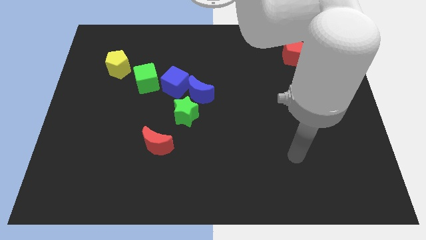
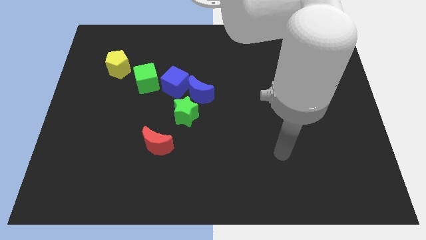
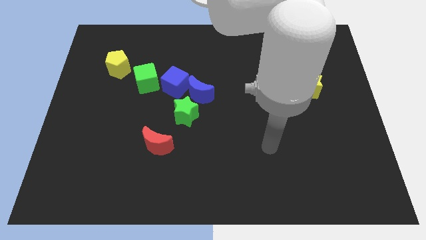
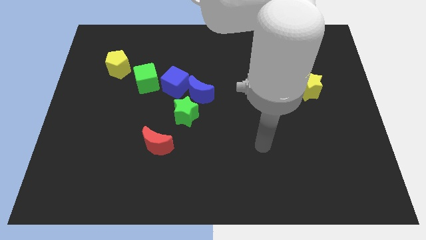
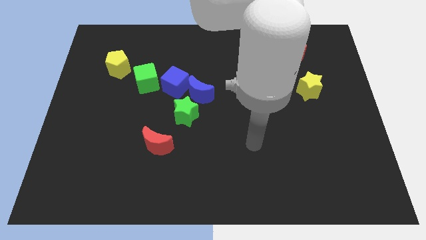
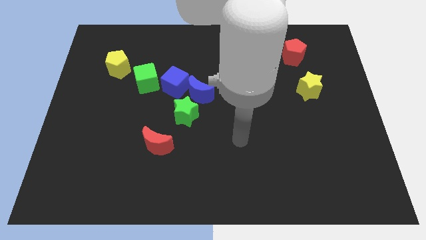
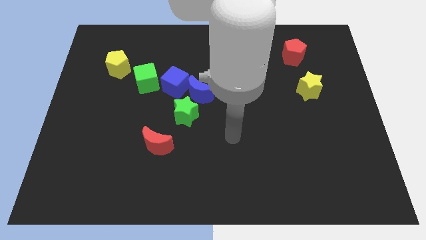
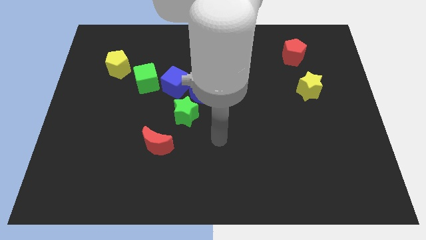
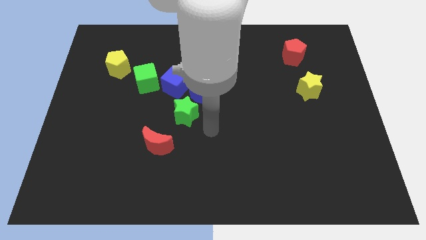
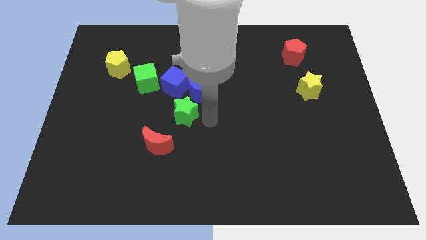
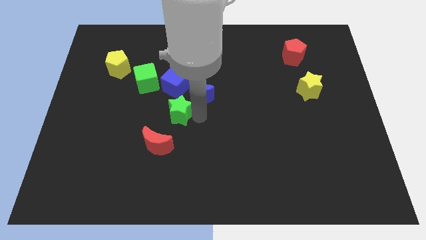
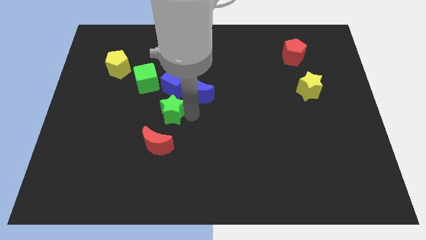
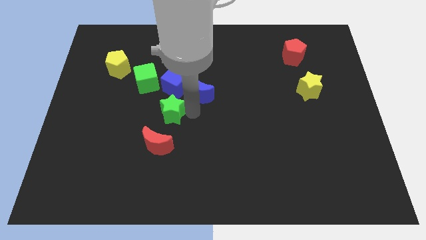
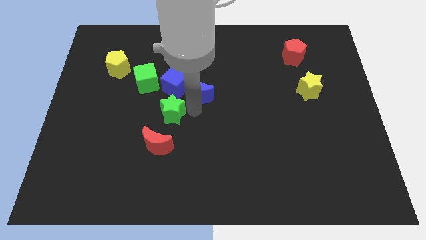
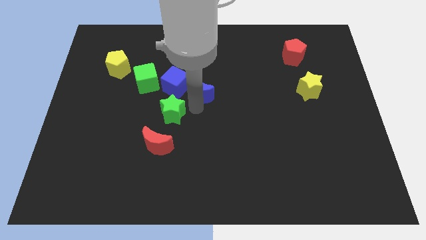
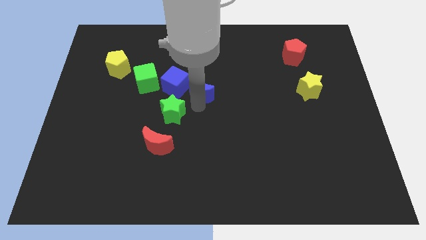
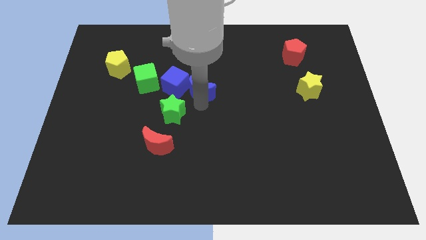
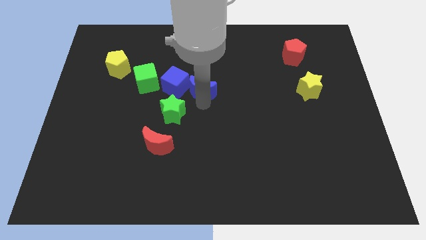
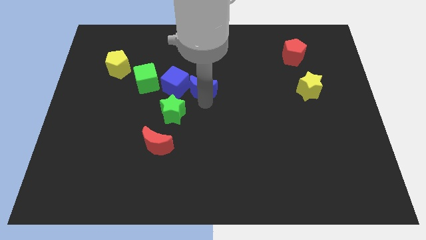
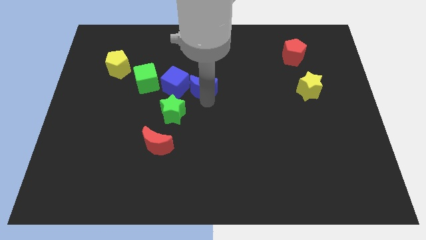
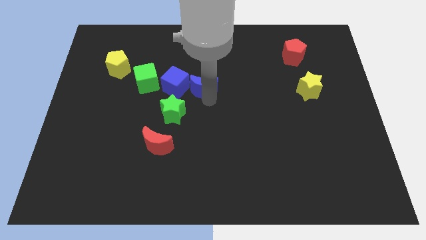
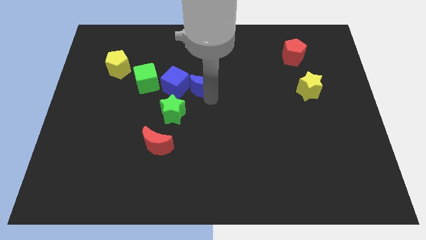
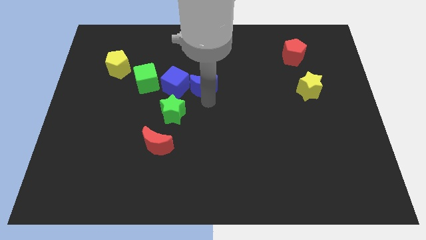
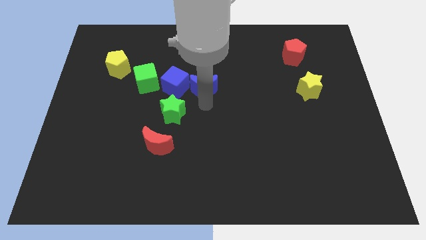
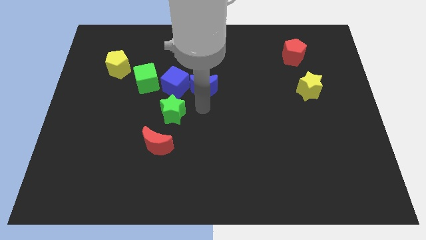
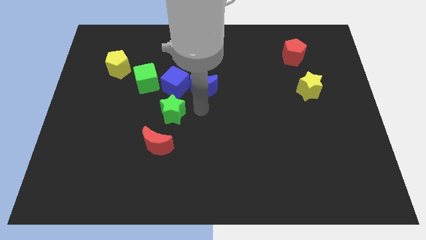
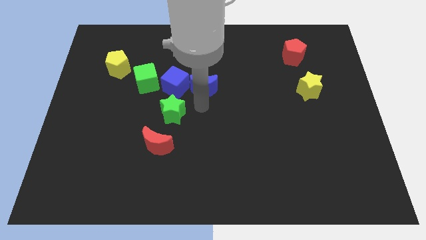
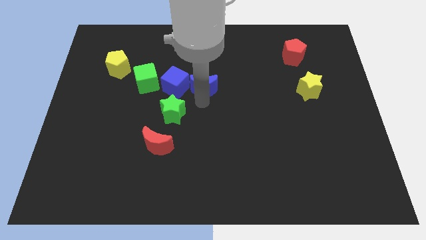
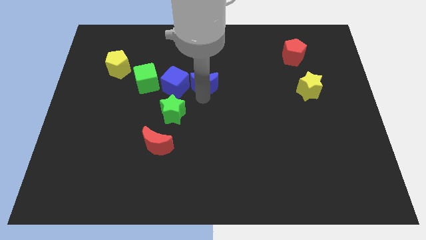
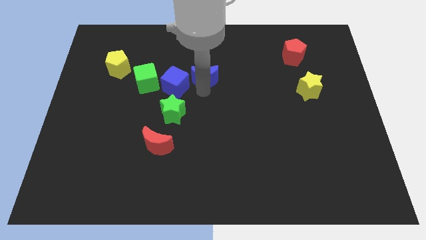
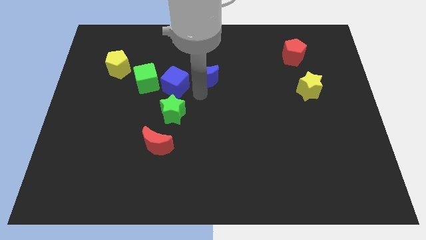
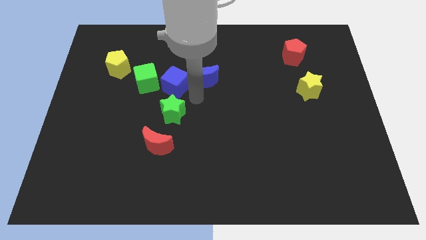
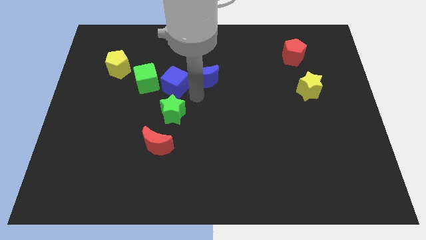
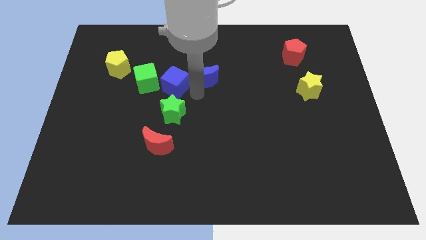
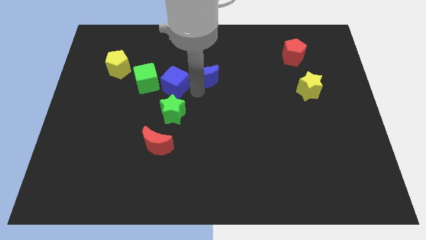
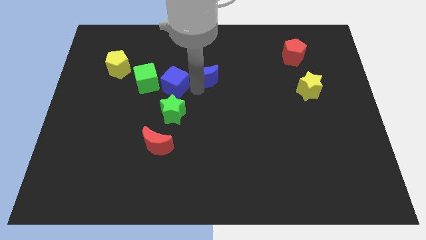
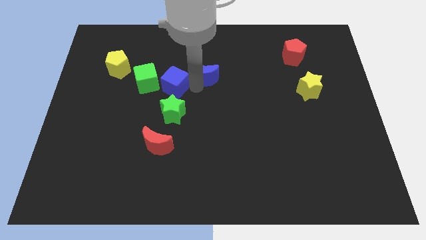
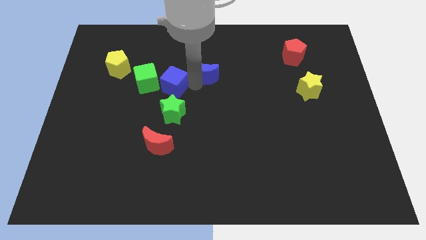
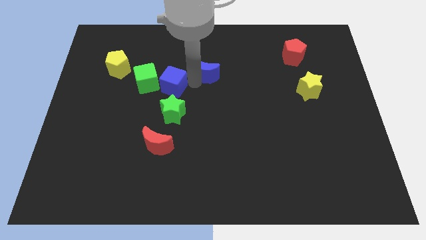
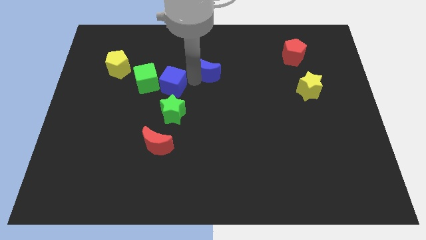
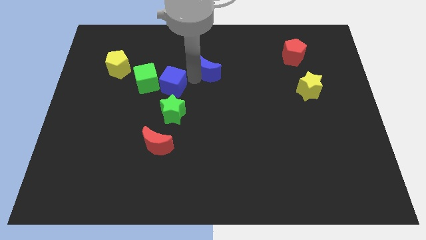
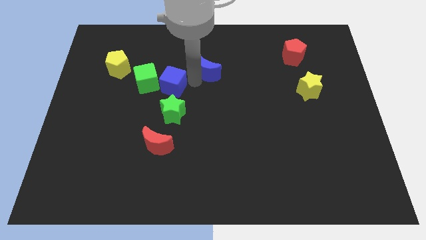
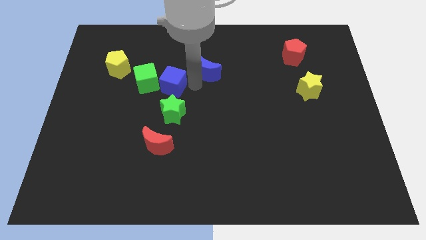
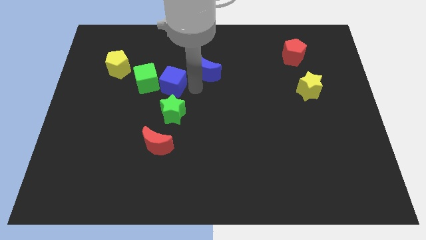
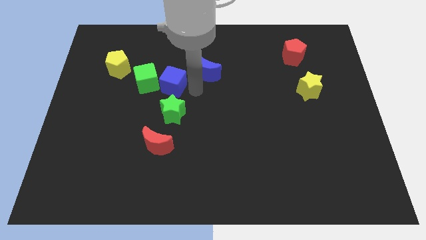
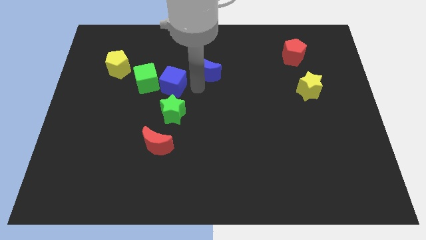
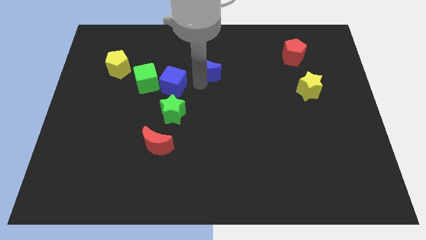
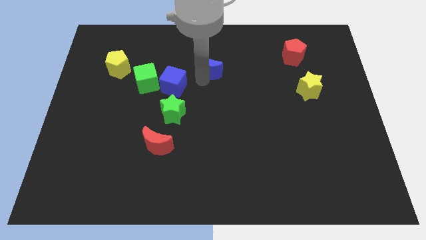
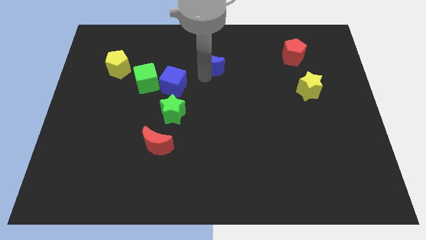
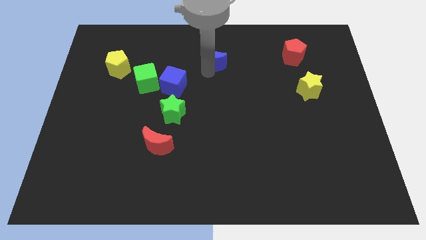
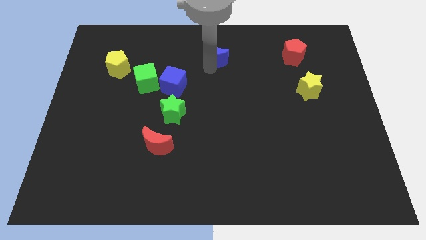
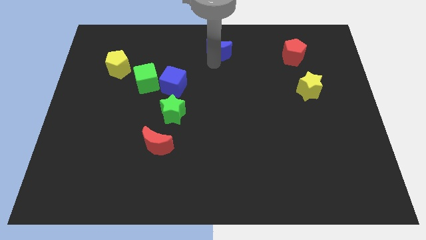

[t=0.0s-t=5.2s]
move the blue moon to the top
